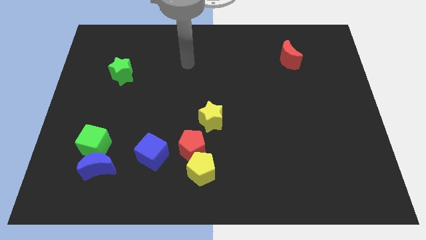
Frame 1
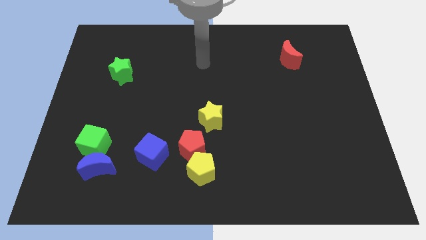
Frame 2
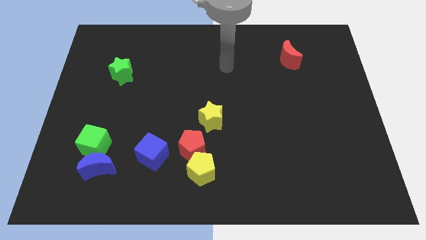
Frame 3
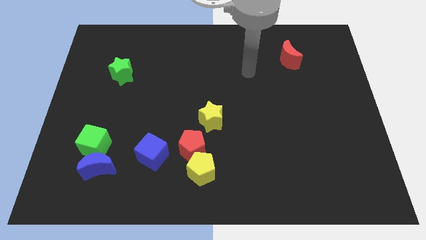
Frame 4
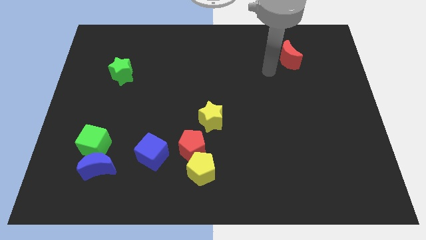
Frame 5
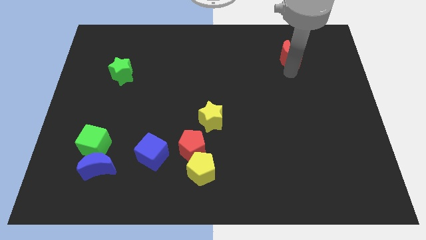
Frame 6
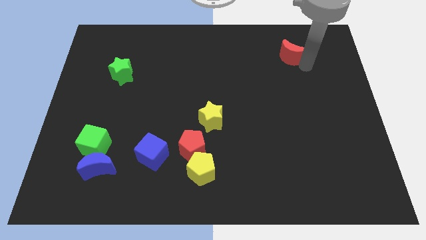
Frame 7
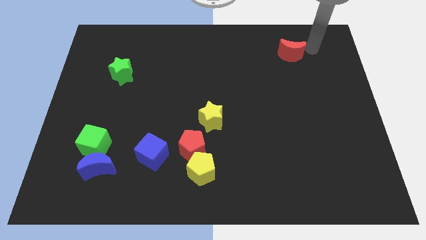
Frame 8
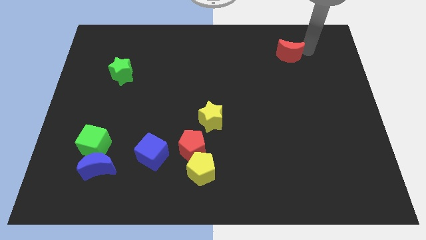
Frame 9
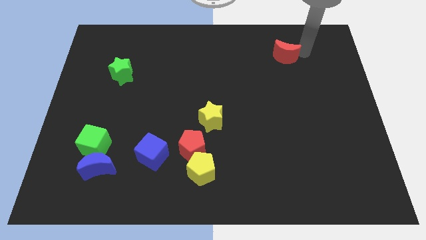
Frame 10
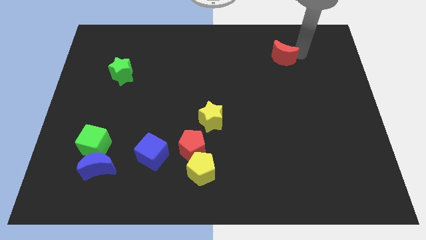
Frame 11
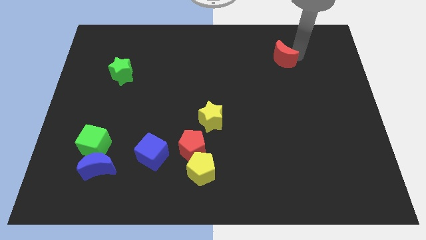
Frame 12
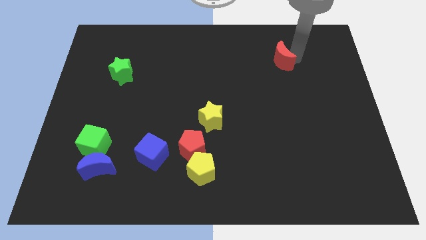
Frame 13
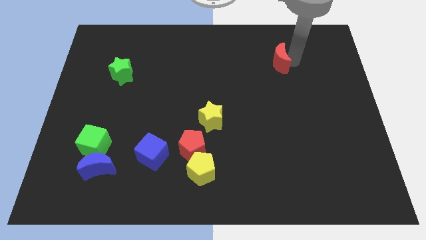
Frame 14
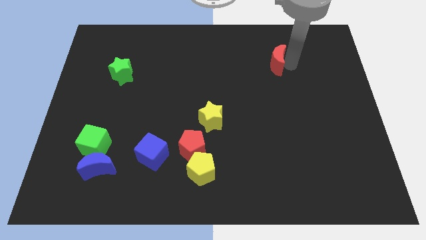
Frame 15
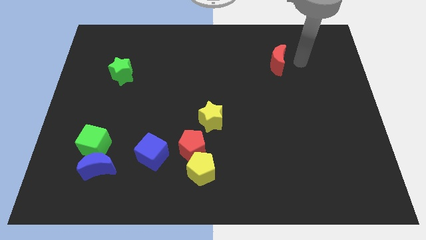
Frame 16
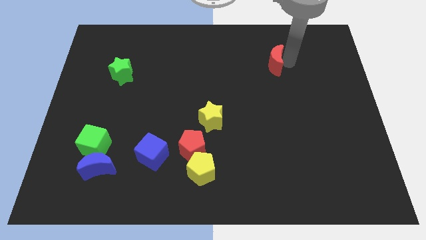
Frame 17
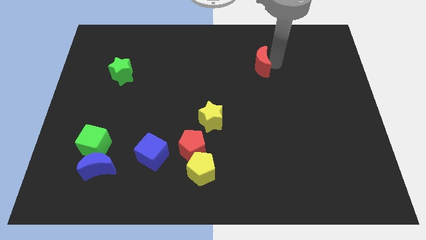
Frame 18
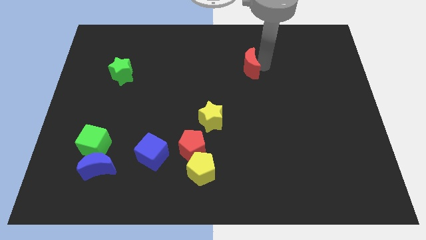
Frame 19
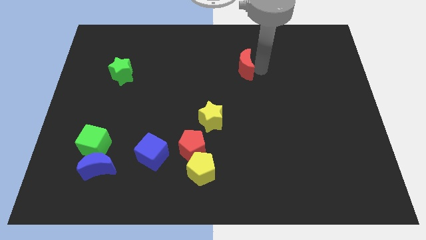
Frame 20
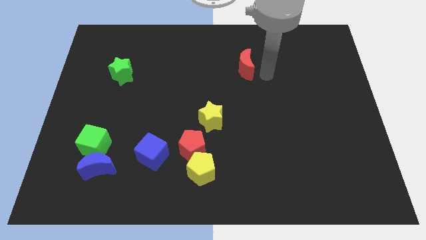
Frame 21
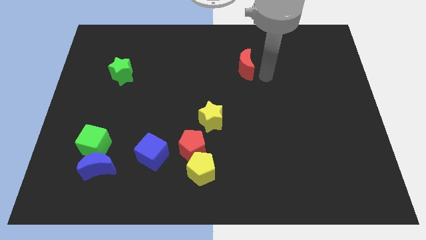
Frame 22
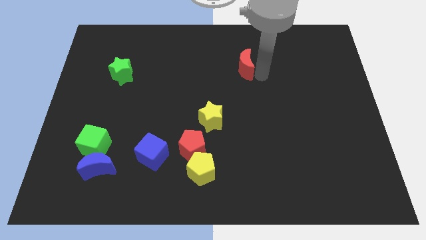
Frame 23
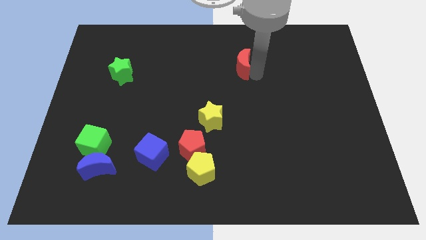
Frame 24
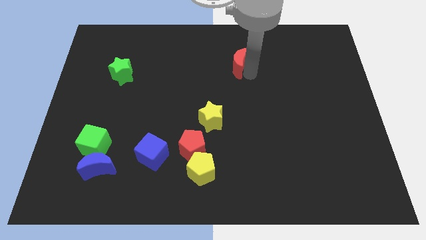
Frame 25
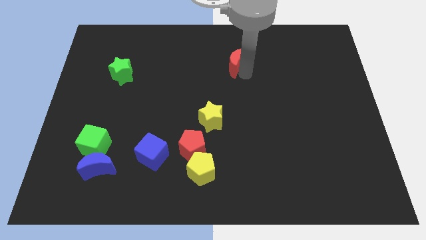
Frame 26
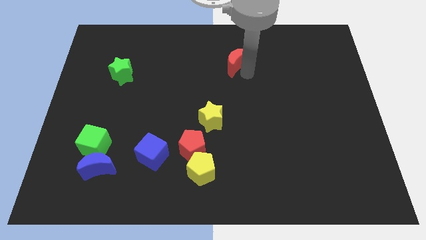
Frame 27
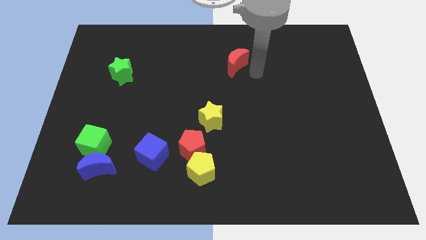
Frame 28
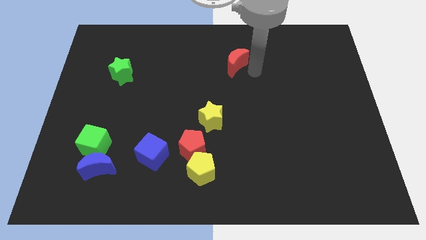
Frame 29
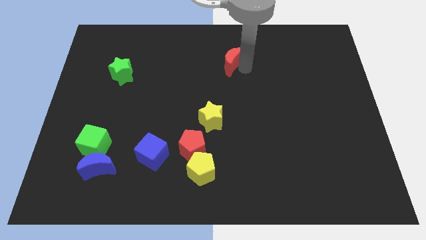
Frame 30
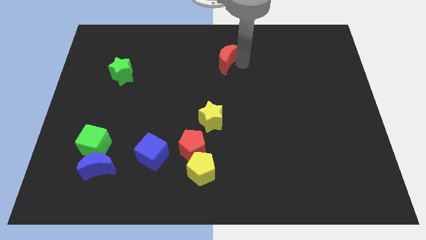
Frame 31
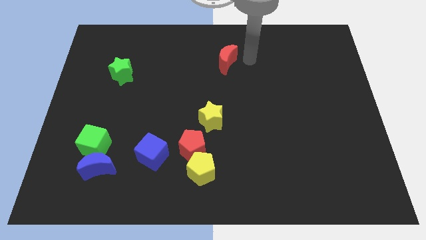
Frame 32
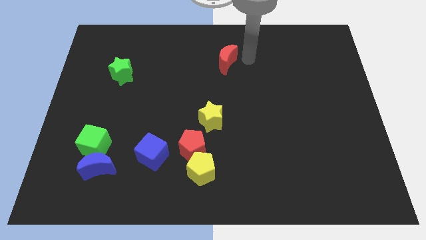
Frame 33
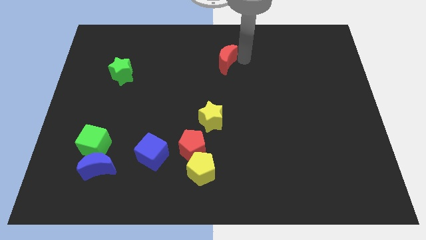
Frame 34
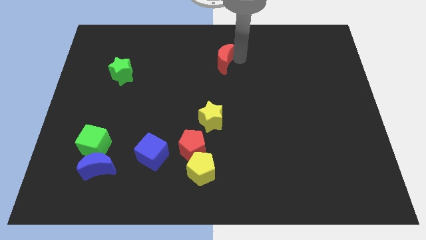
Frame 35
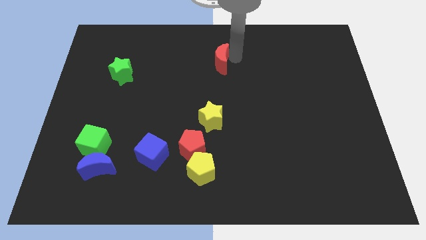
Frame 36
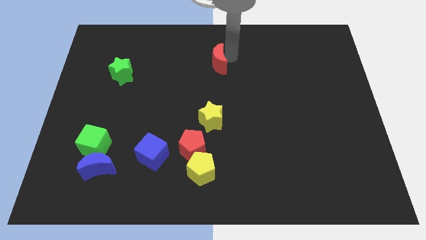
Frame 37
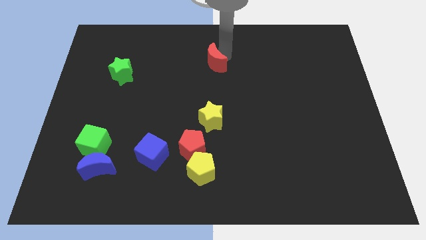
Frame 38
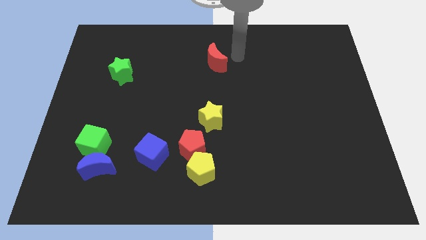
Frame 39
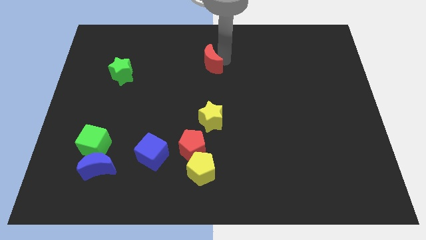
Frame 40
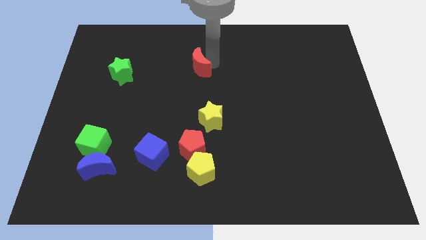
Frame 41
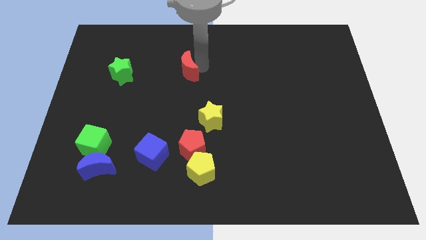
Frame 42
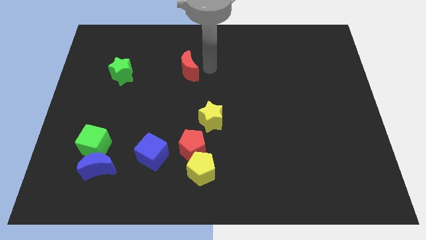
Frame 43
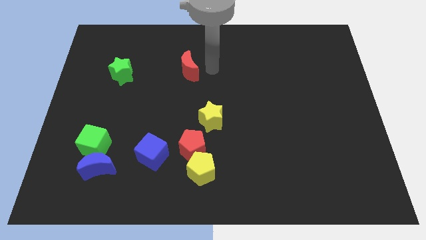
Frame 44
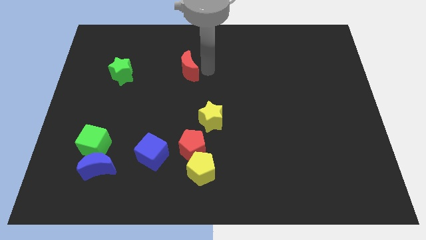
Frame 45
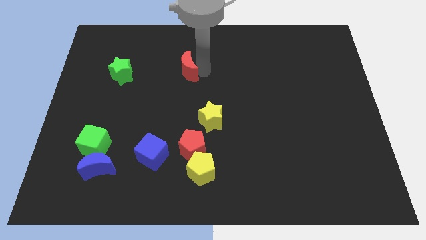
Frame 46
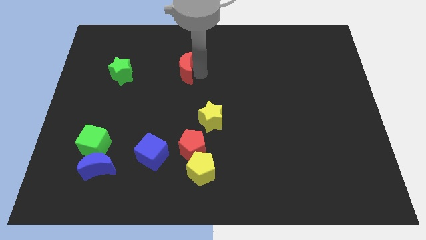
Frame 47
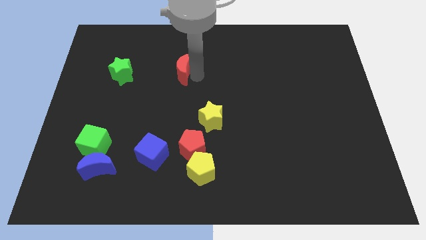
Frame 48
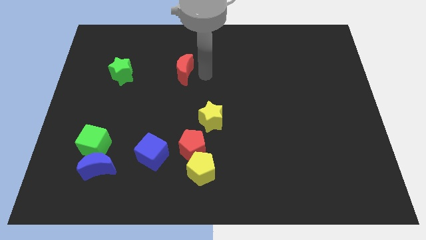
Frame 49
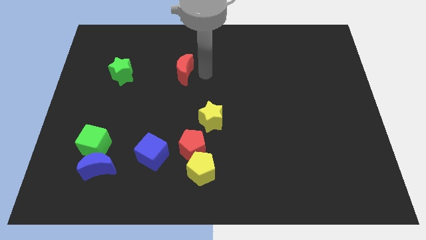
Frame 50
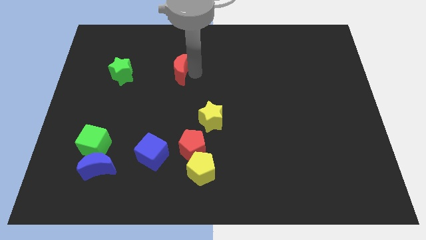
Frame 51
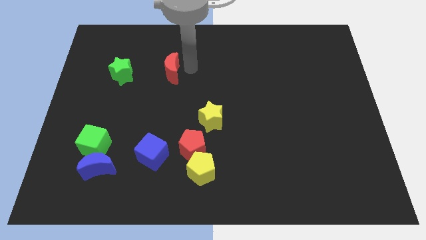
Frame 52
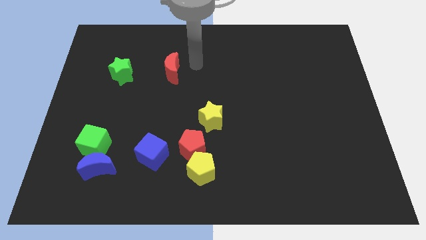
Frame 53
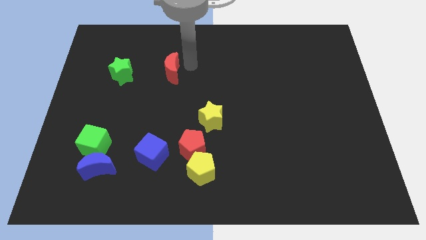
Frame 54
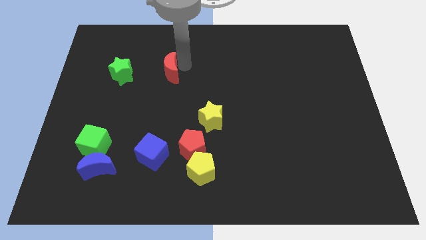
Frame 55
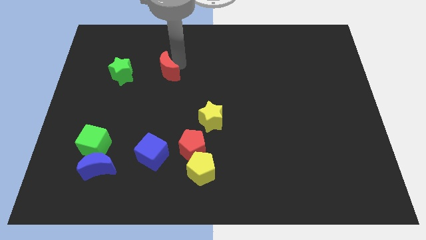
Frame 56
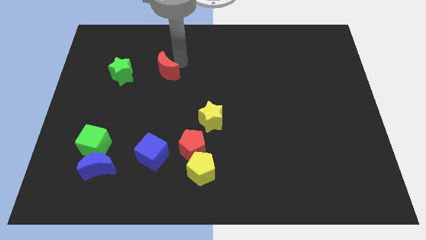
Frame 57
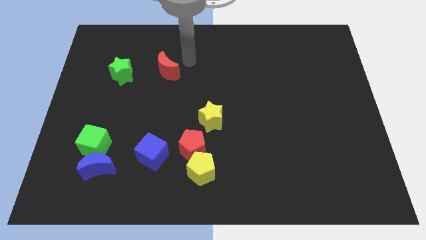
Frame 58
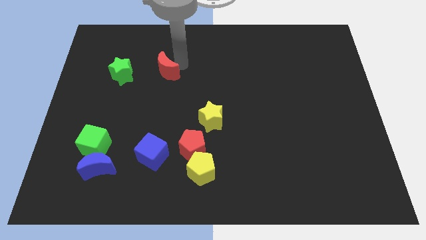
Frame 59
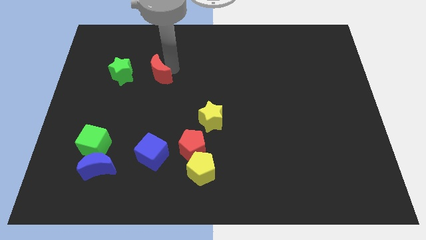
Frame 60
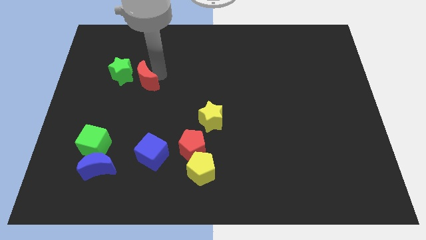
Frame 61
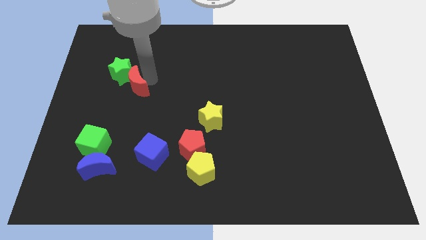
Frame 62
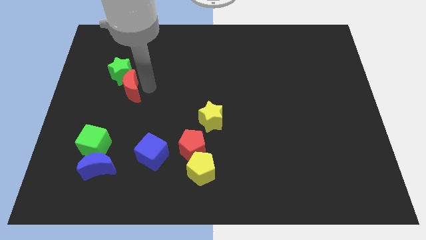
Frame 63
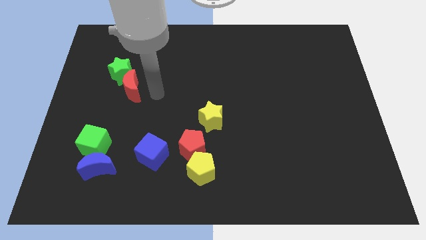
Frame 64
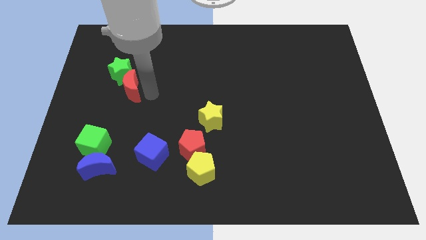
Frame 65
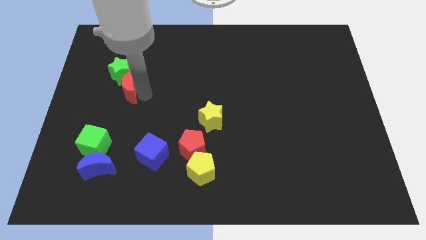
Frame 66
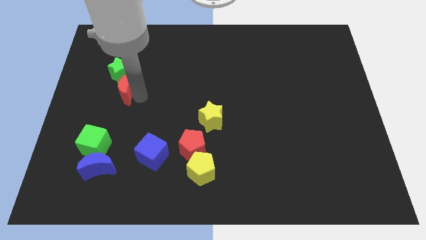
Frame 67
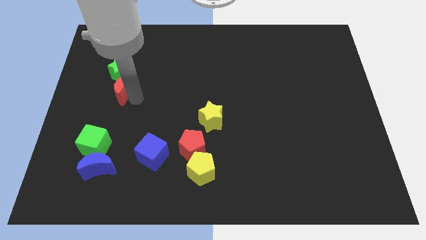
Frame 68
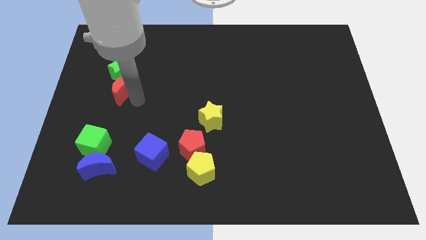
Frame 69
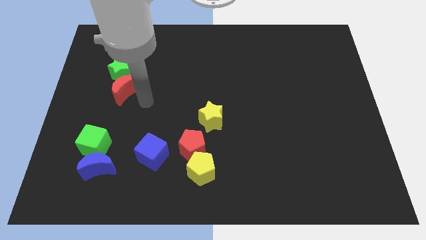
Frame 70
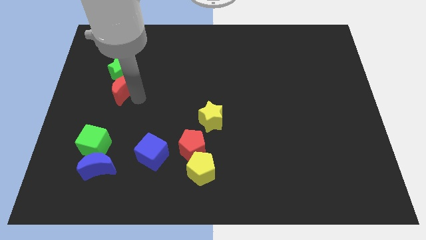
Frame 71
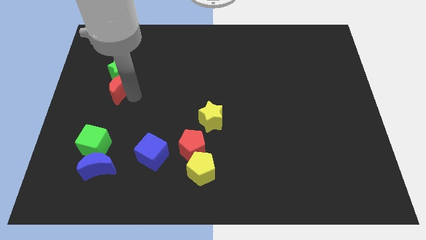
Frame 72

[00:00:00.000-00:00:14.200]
move the red moon to the bottom left side of the green star
